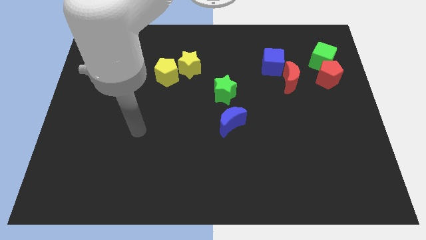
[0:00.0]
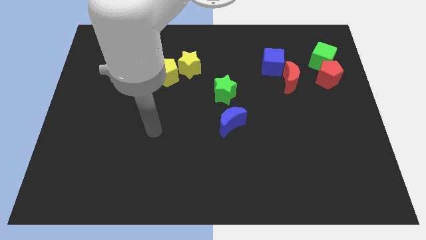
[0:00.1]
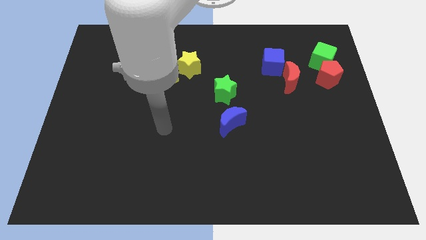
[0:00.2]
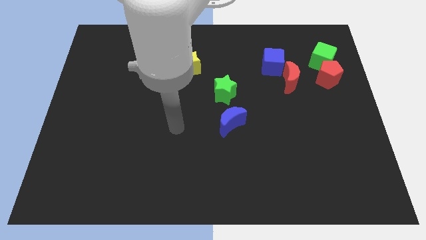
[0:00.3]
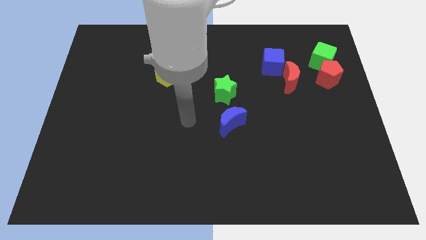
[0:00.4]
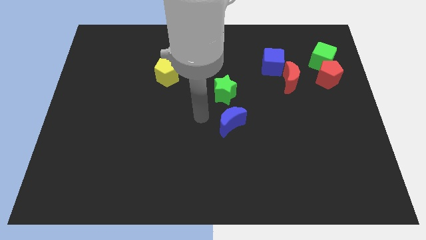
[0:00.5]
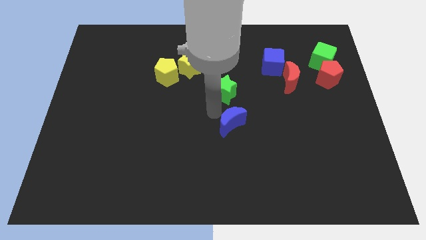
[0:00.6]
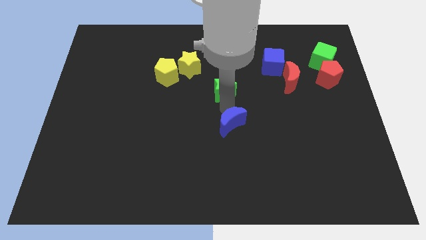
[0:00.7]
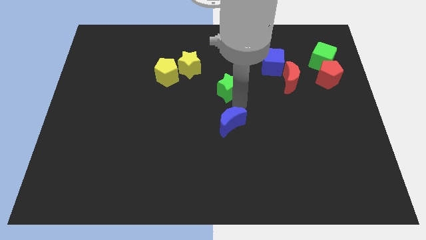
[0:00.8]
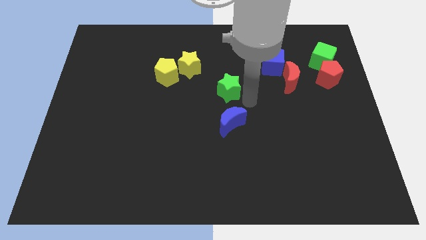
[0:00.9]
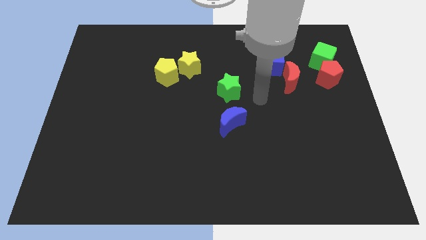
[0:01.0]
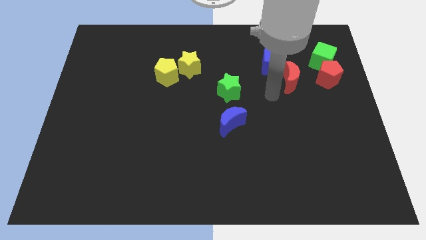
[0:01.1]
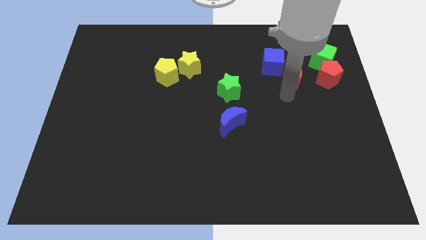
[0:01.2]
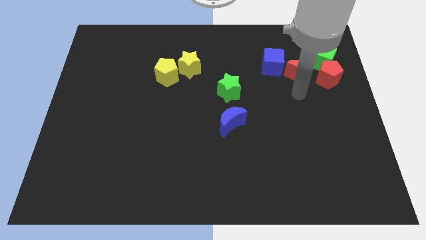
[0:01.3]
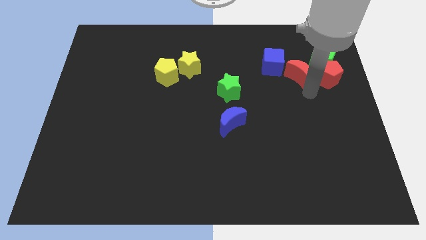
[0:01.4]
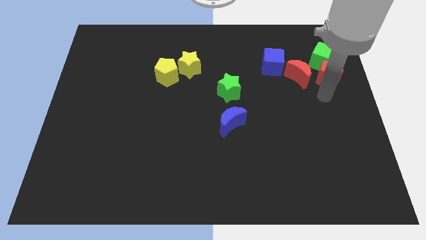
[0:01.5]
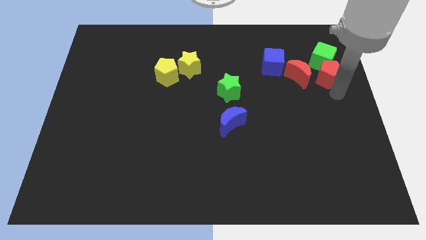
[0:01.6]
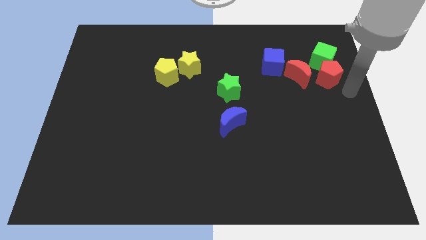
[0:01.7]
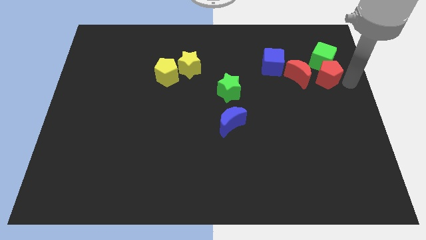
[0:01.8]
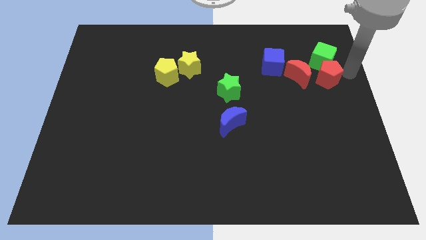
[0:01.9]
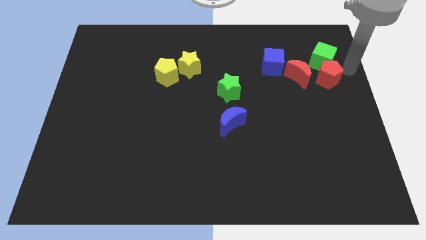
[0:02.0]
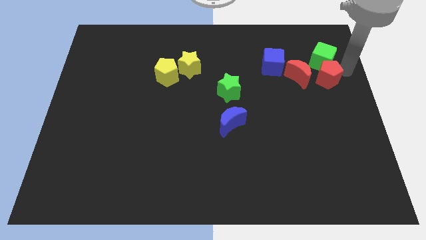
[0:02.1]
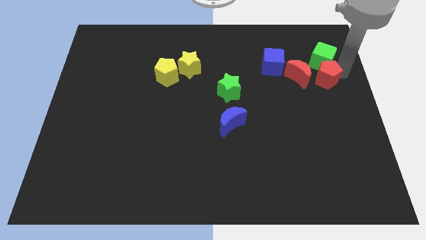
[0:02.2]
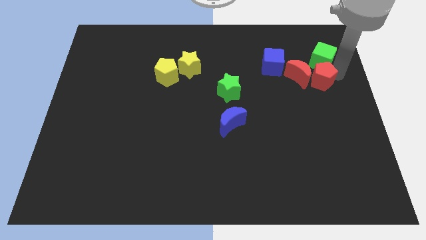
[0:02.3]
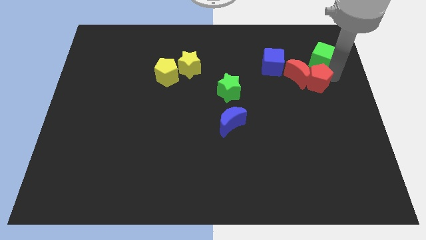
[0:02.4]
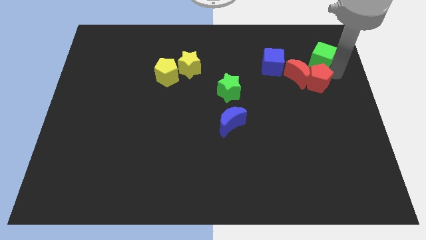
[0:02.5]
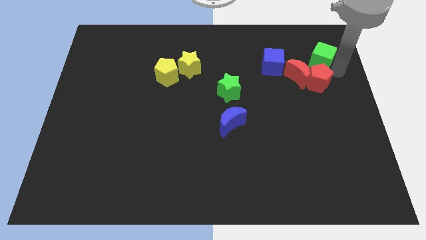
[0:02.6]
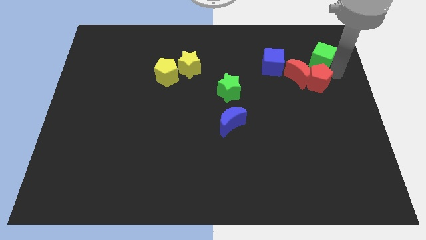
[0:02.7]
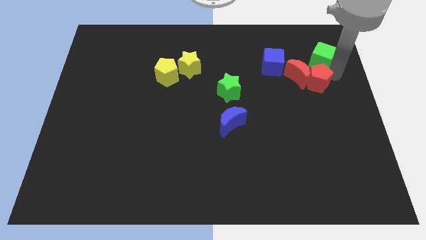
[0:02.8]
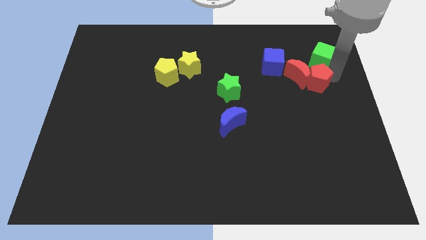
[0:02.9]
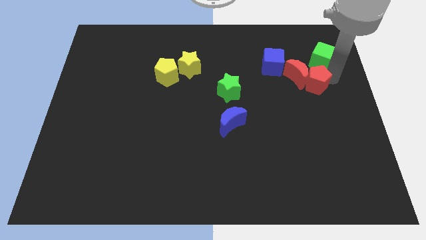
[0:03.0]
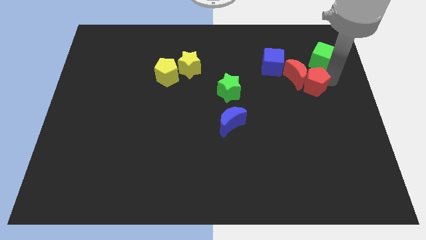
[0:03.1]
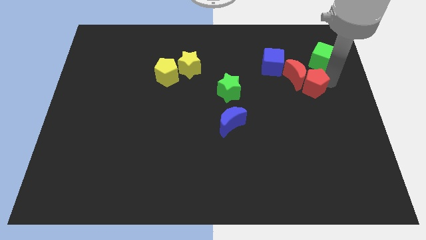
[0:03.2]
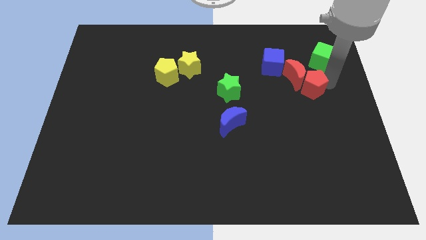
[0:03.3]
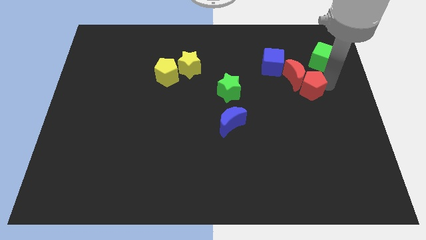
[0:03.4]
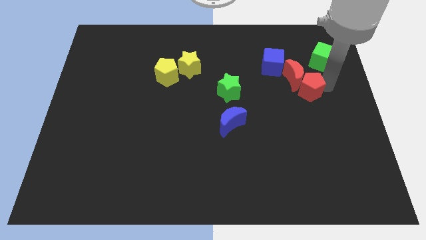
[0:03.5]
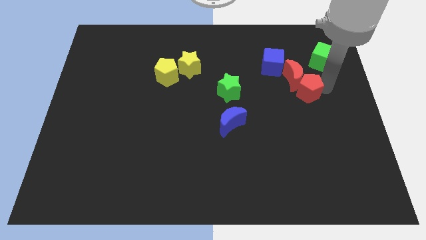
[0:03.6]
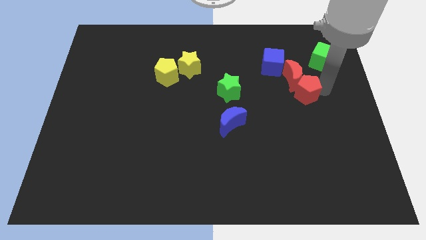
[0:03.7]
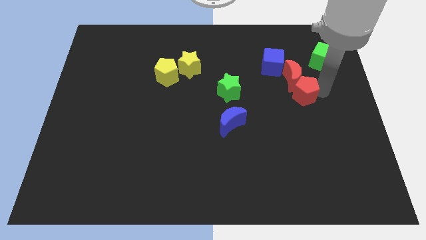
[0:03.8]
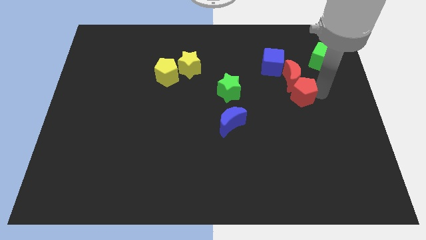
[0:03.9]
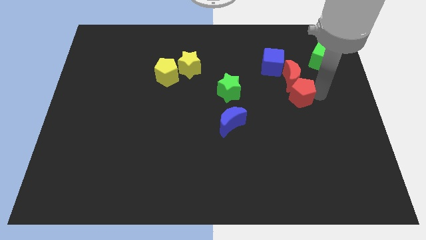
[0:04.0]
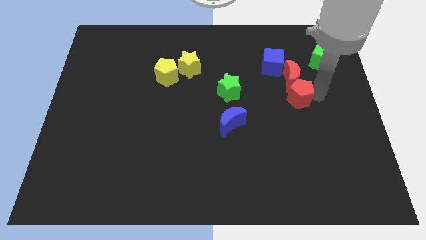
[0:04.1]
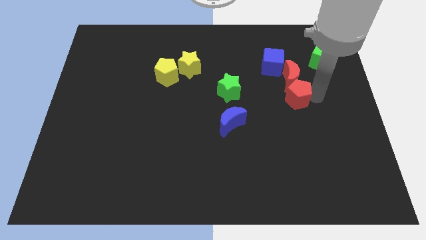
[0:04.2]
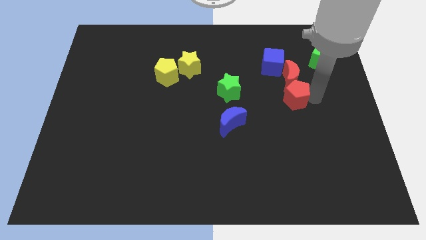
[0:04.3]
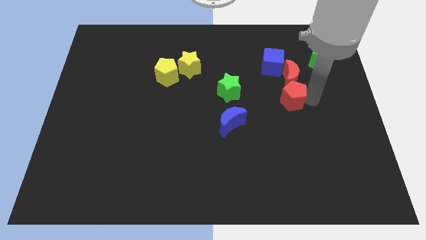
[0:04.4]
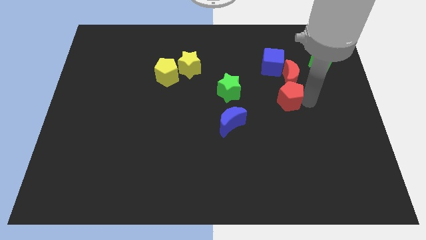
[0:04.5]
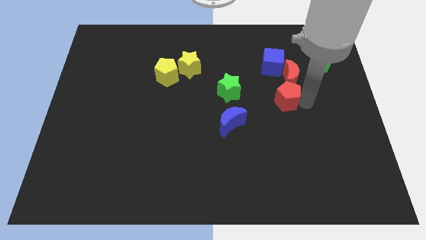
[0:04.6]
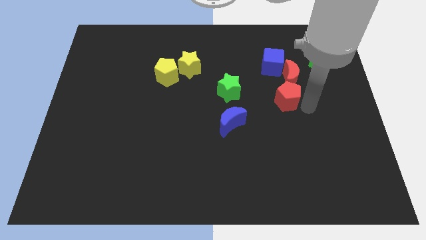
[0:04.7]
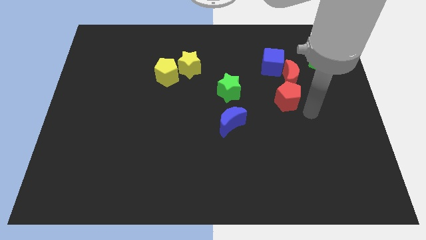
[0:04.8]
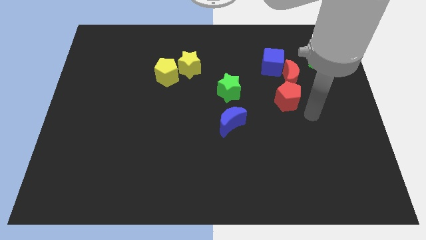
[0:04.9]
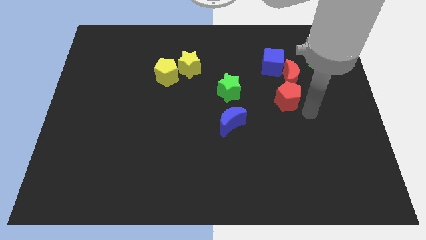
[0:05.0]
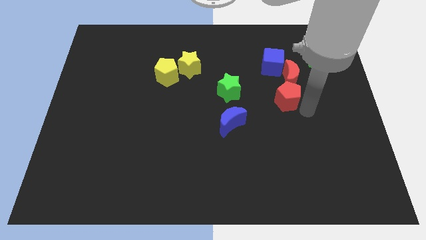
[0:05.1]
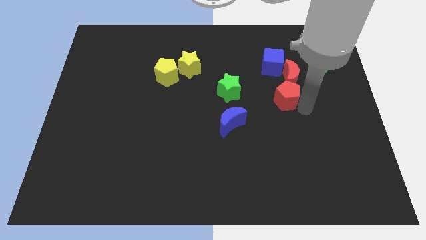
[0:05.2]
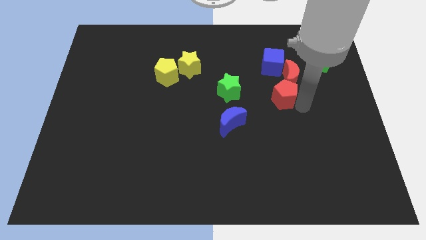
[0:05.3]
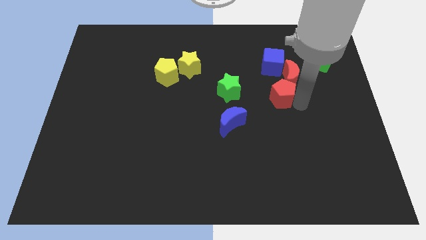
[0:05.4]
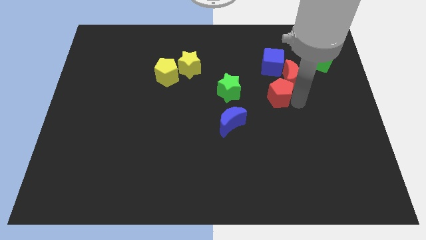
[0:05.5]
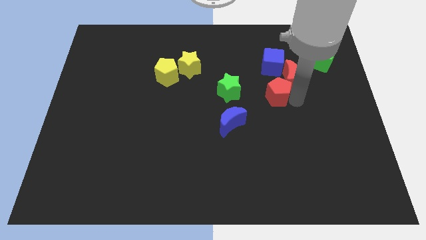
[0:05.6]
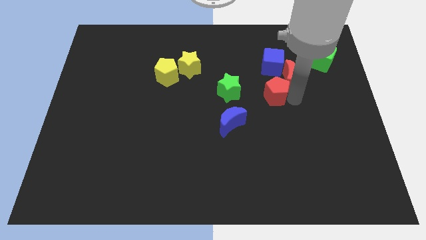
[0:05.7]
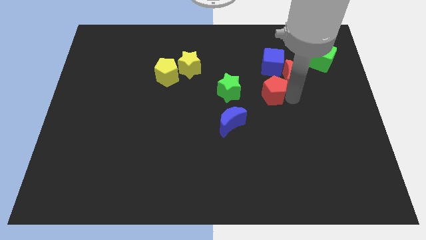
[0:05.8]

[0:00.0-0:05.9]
move the red pentagon left of the red moon
